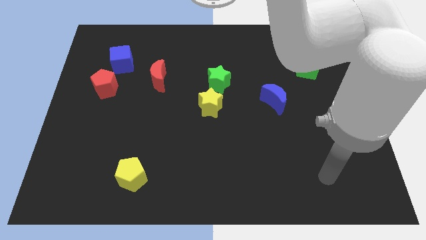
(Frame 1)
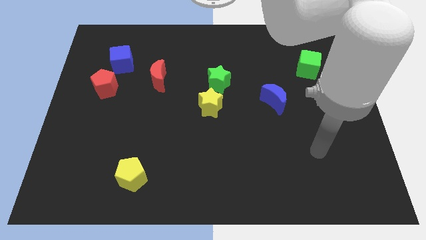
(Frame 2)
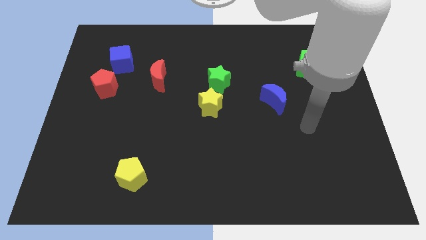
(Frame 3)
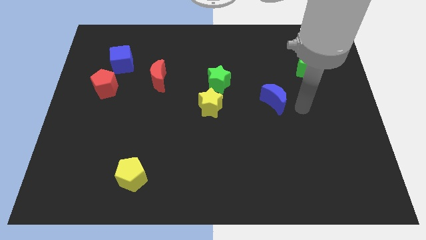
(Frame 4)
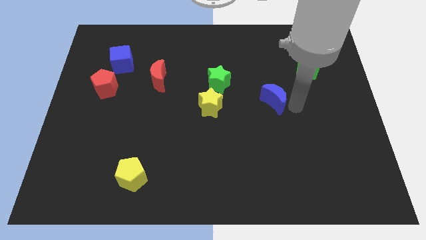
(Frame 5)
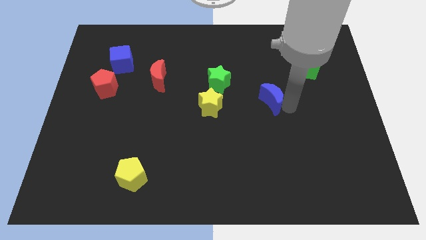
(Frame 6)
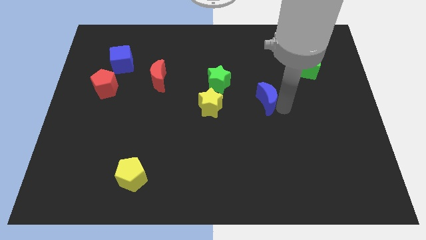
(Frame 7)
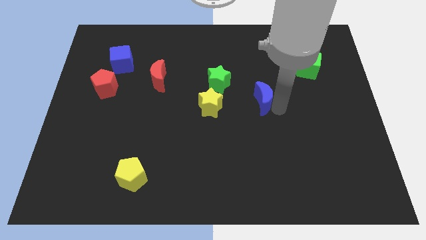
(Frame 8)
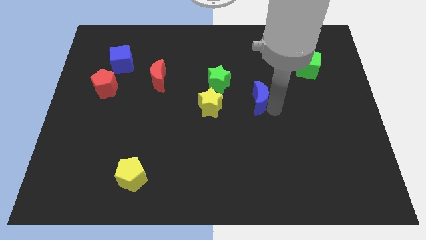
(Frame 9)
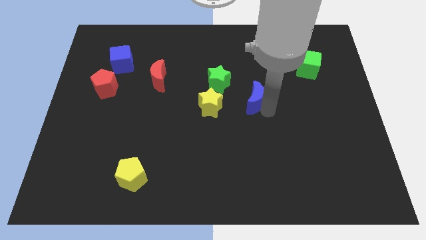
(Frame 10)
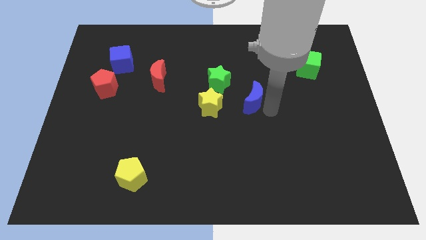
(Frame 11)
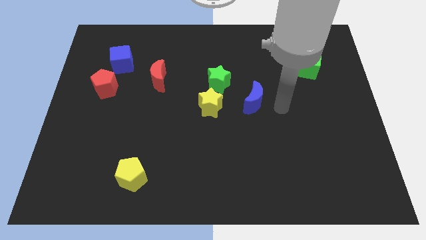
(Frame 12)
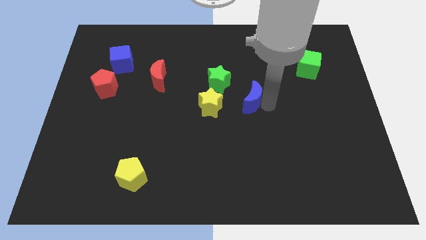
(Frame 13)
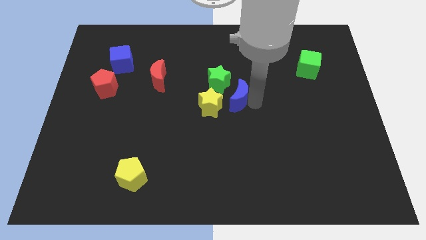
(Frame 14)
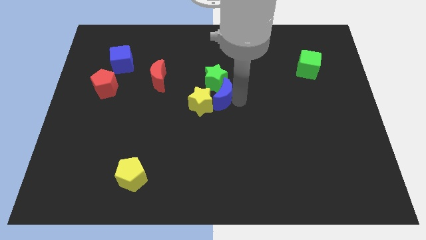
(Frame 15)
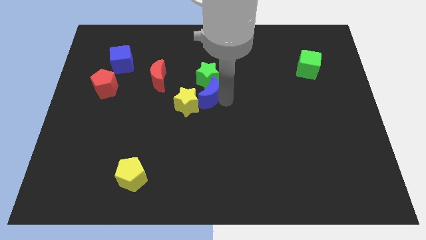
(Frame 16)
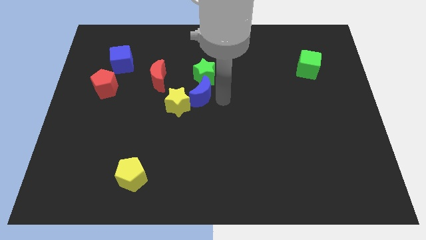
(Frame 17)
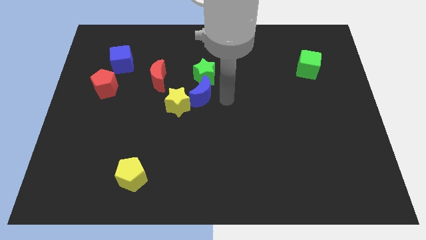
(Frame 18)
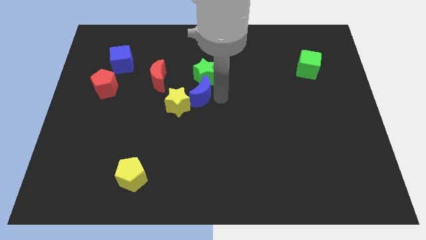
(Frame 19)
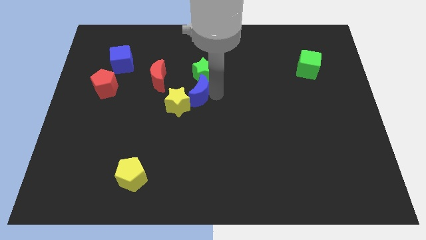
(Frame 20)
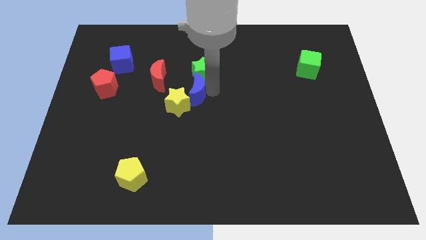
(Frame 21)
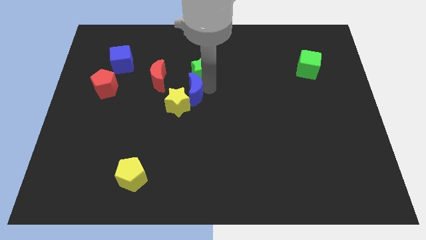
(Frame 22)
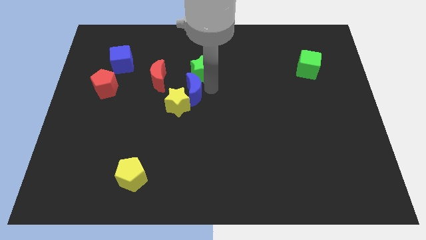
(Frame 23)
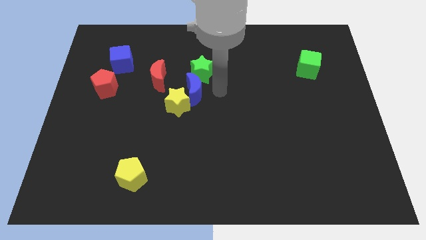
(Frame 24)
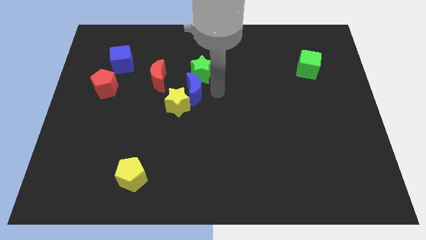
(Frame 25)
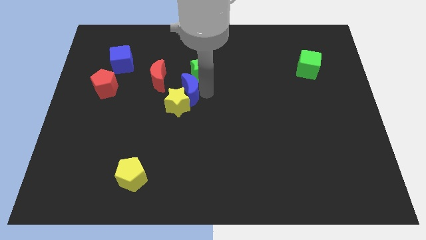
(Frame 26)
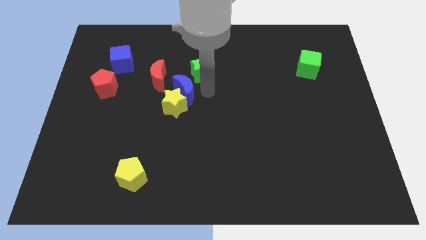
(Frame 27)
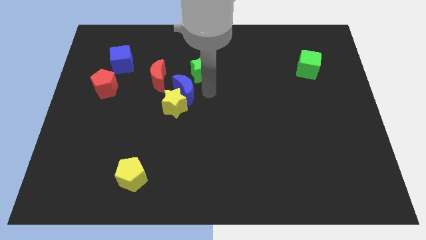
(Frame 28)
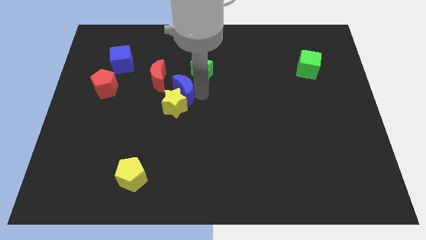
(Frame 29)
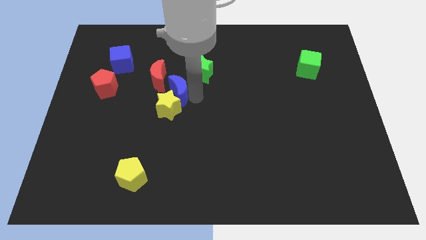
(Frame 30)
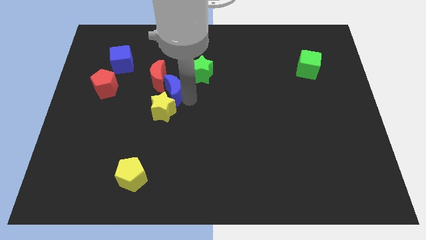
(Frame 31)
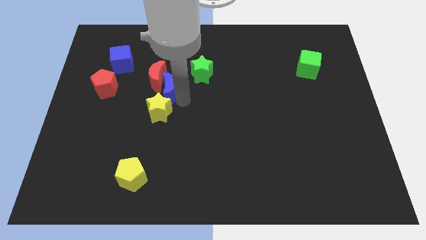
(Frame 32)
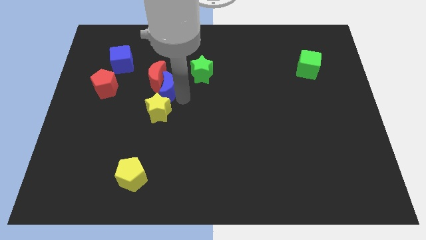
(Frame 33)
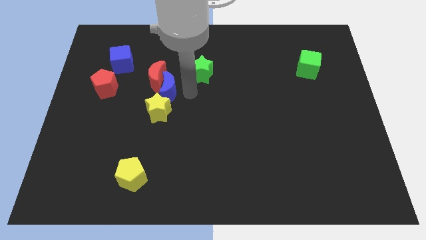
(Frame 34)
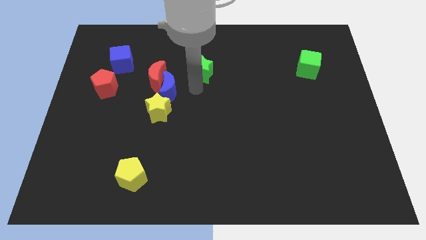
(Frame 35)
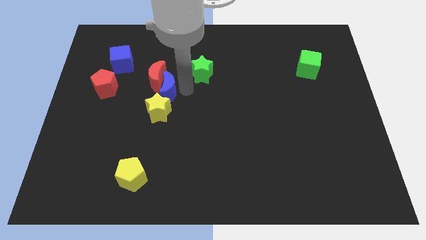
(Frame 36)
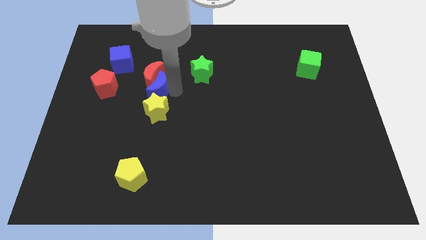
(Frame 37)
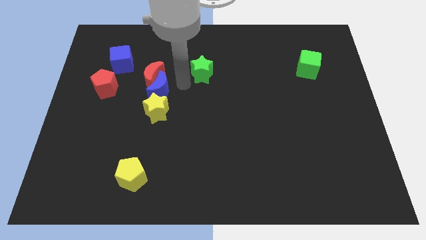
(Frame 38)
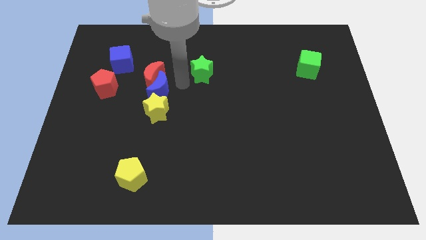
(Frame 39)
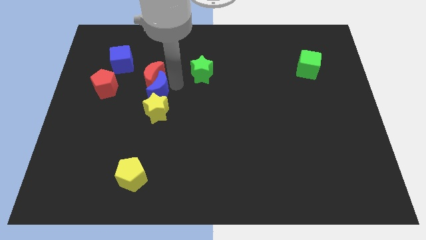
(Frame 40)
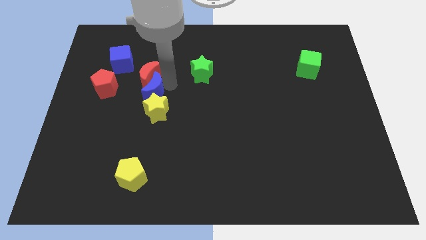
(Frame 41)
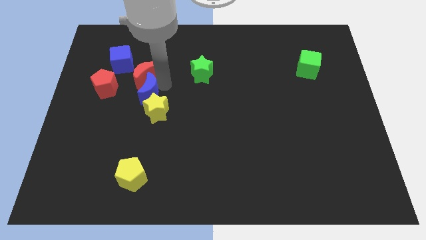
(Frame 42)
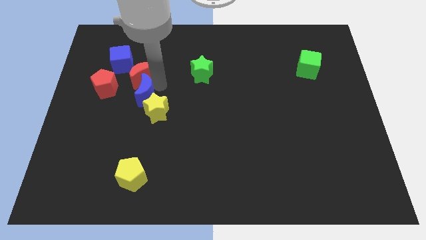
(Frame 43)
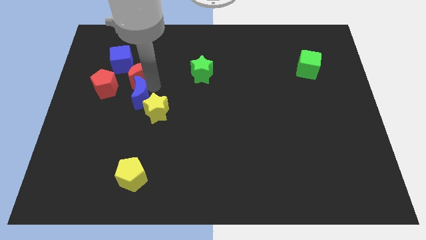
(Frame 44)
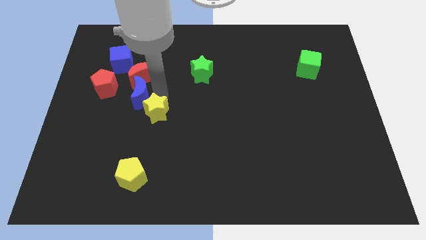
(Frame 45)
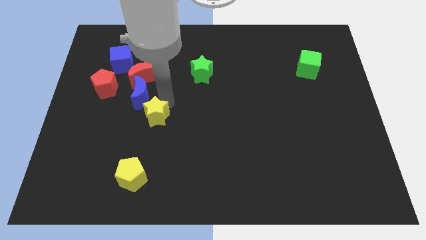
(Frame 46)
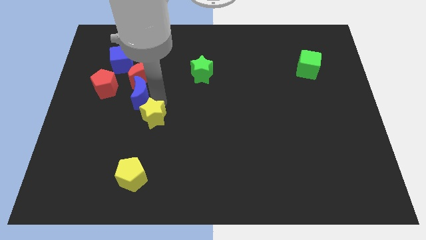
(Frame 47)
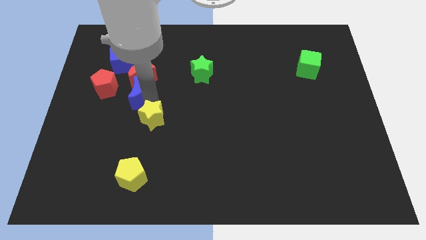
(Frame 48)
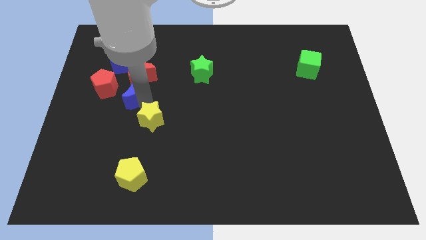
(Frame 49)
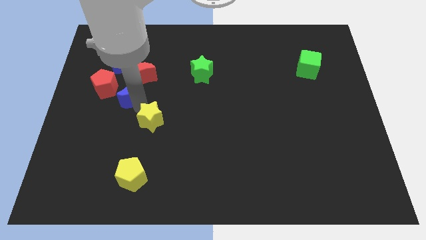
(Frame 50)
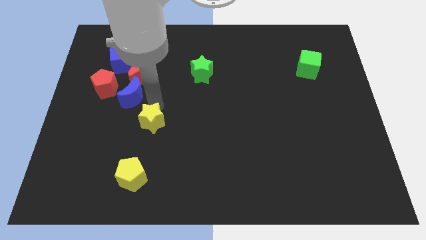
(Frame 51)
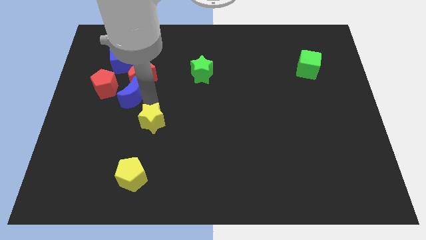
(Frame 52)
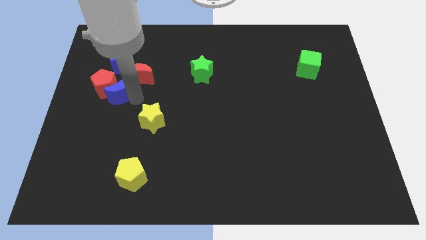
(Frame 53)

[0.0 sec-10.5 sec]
put the blue moon close to the red pentagon

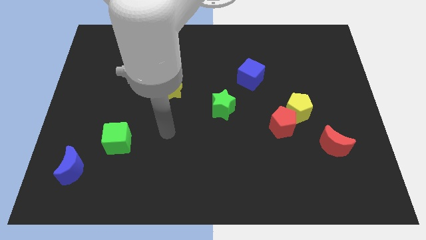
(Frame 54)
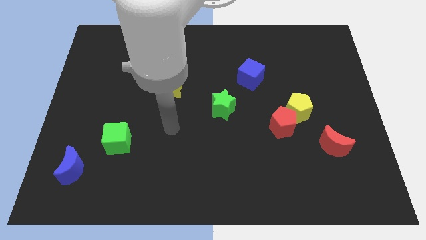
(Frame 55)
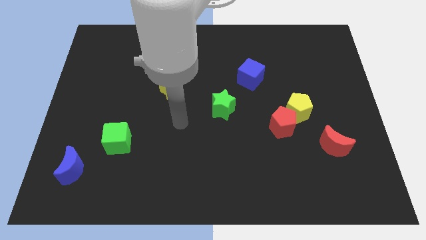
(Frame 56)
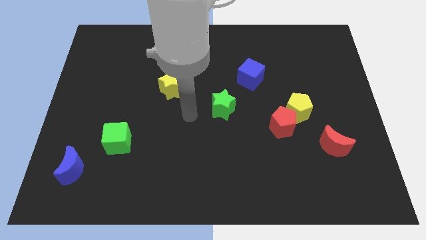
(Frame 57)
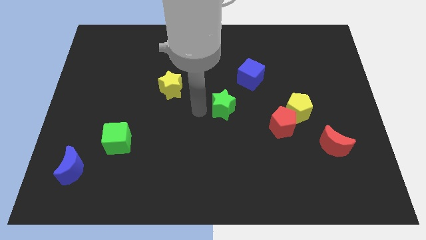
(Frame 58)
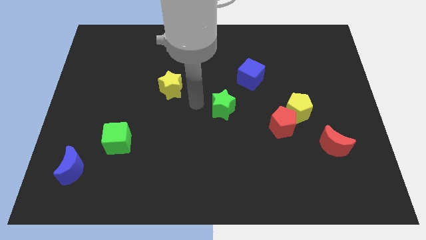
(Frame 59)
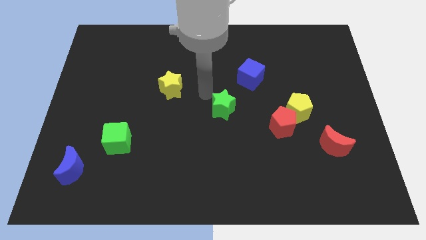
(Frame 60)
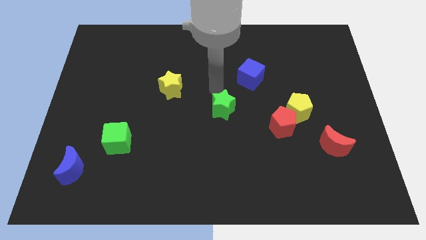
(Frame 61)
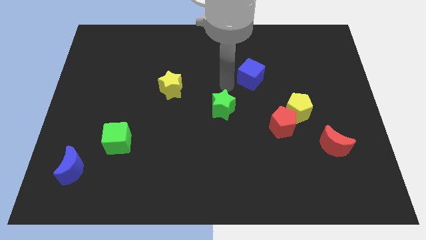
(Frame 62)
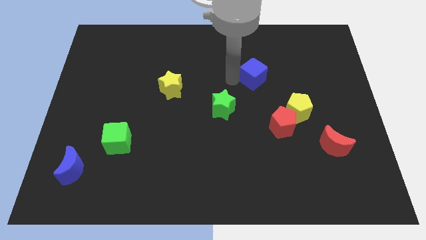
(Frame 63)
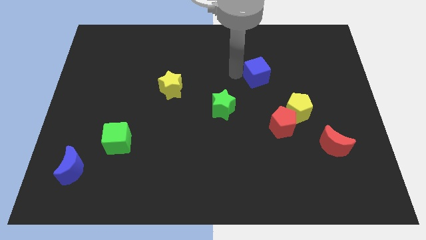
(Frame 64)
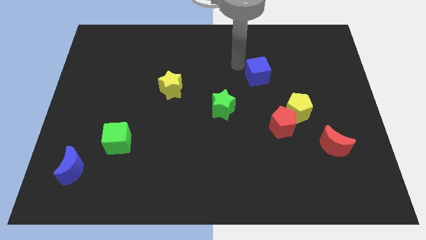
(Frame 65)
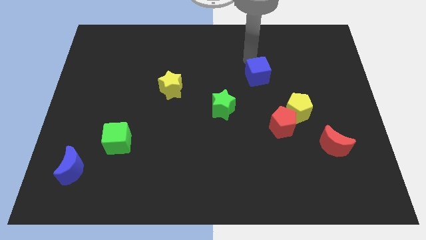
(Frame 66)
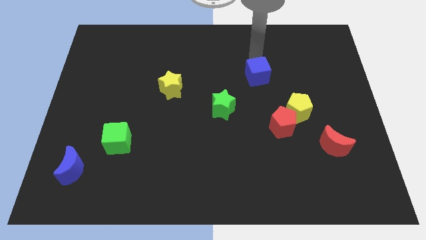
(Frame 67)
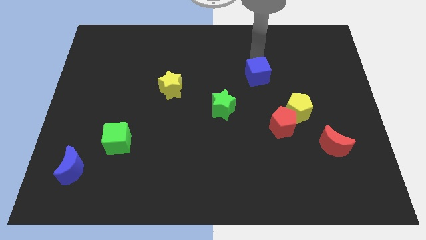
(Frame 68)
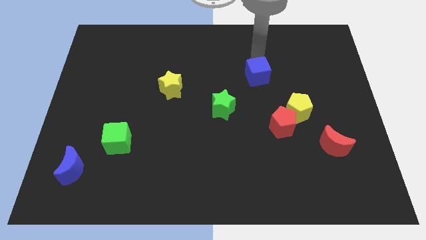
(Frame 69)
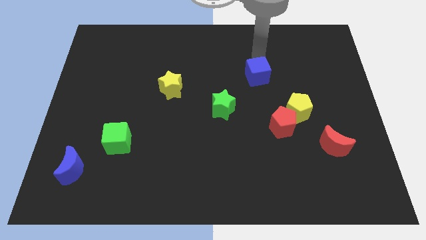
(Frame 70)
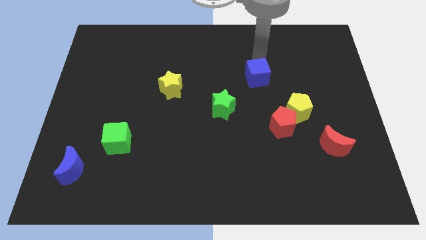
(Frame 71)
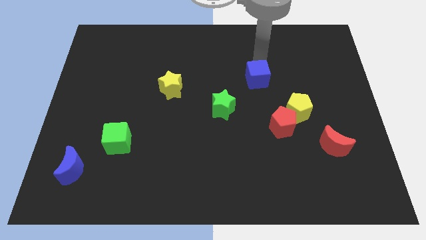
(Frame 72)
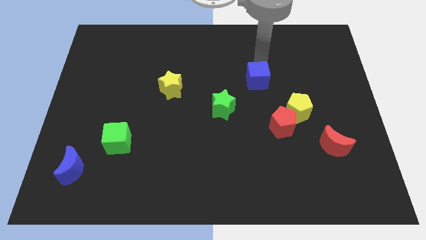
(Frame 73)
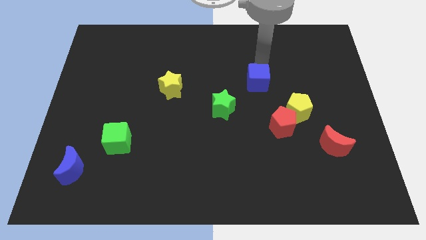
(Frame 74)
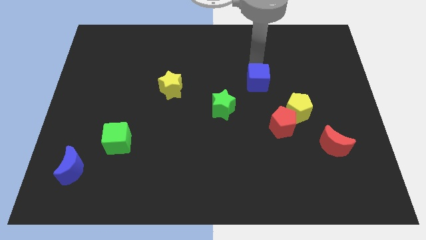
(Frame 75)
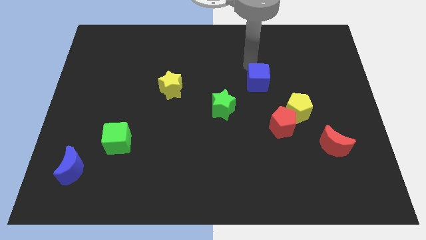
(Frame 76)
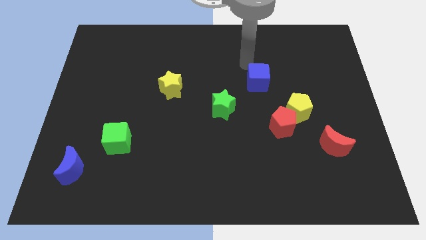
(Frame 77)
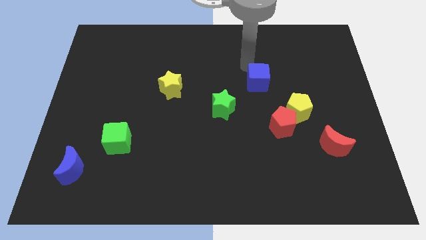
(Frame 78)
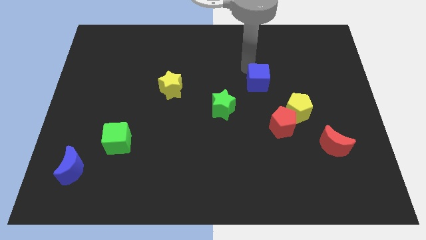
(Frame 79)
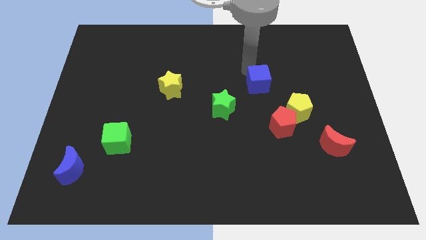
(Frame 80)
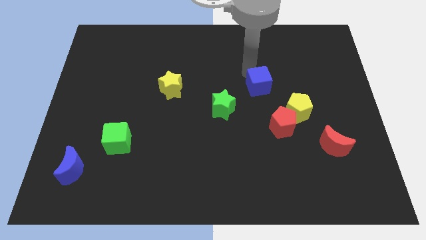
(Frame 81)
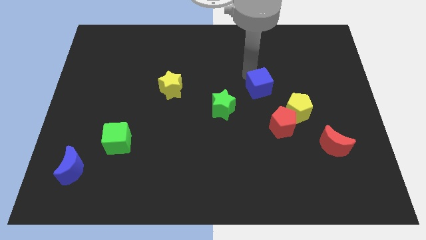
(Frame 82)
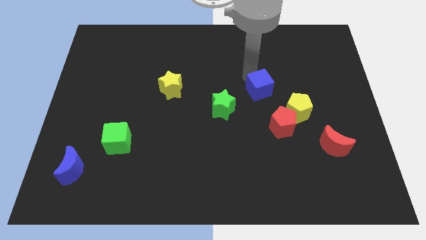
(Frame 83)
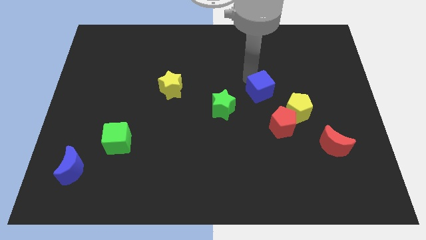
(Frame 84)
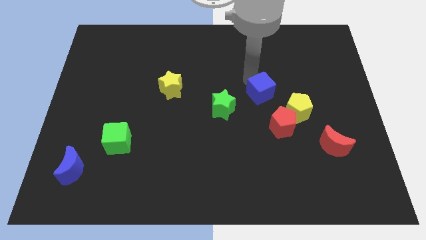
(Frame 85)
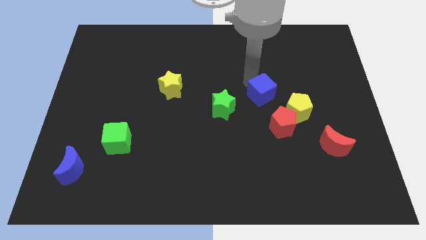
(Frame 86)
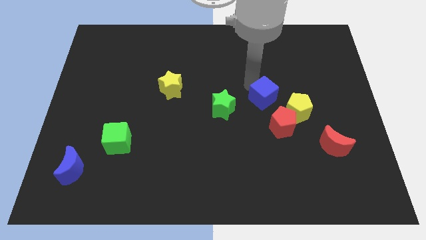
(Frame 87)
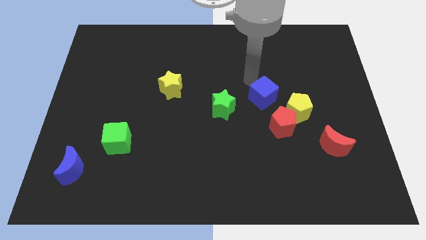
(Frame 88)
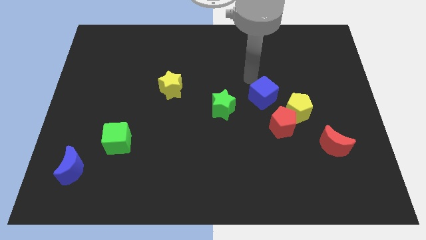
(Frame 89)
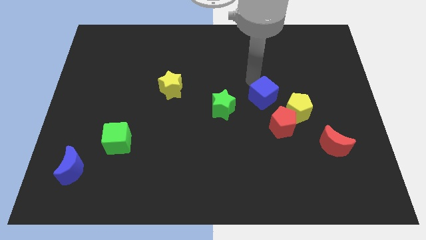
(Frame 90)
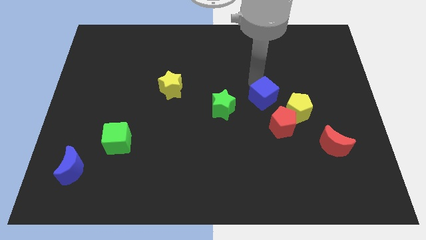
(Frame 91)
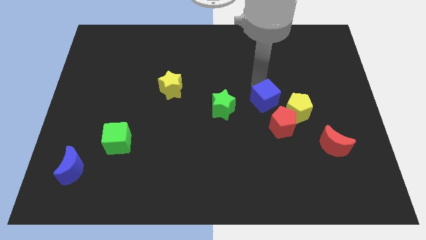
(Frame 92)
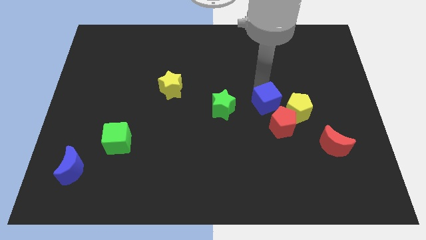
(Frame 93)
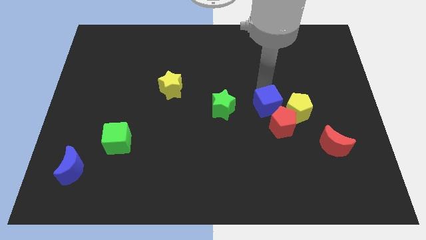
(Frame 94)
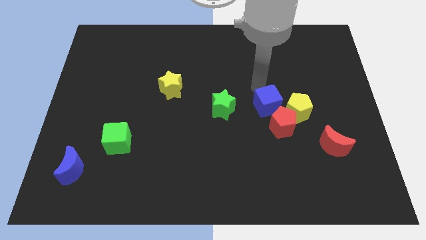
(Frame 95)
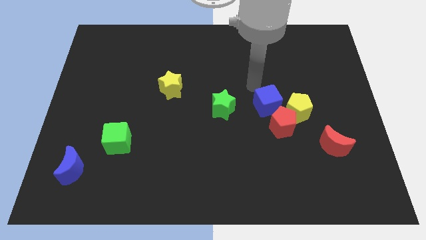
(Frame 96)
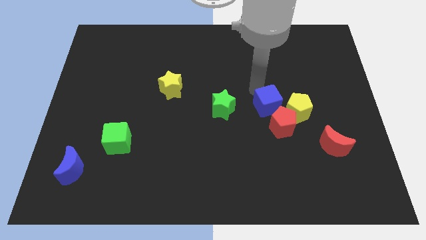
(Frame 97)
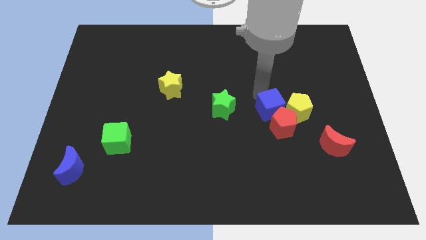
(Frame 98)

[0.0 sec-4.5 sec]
push the blue cube close to the red pentagon
